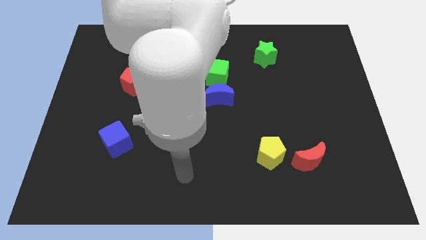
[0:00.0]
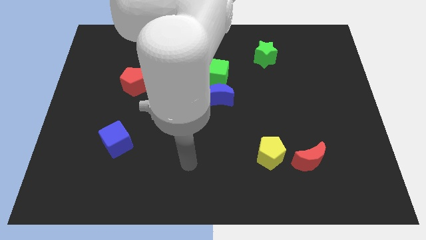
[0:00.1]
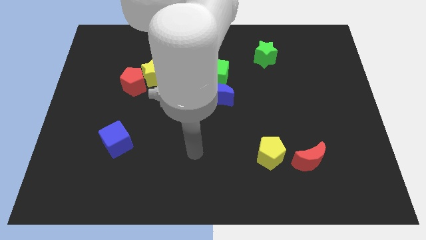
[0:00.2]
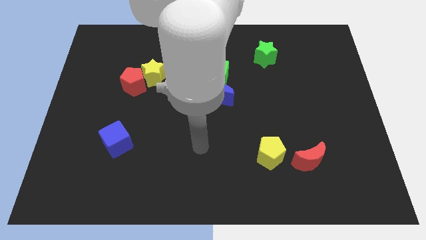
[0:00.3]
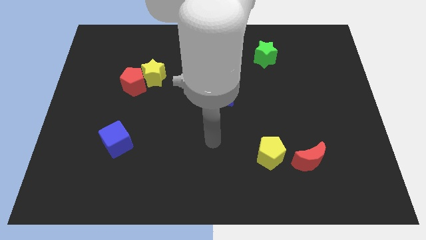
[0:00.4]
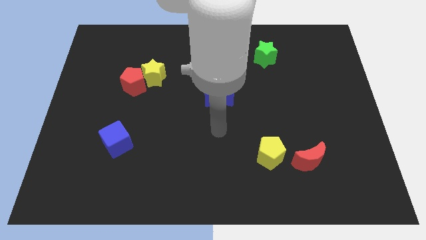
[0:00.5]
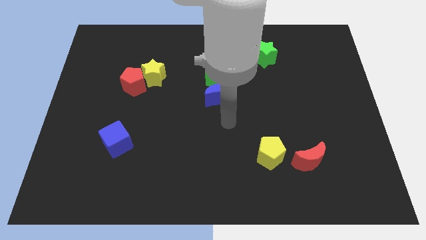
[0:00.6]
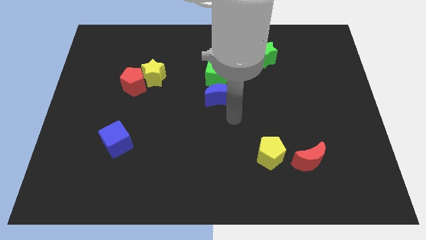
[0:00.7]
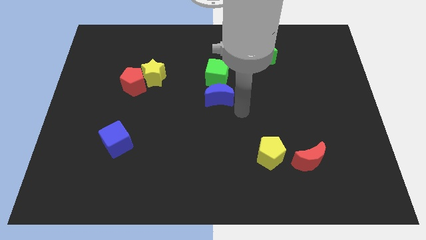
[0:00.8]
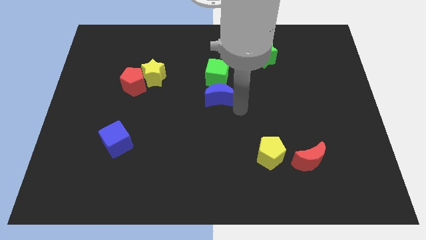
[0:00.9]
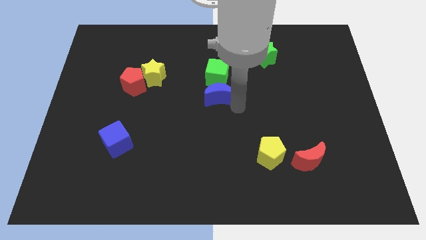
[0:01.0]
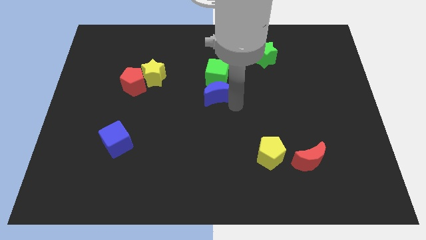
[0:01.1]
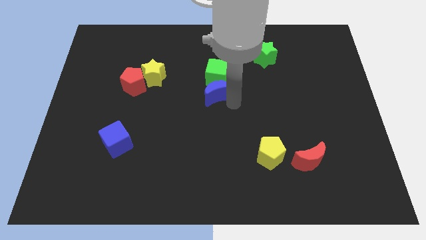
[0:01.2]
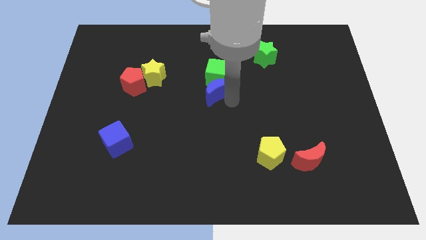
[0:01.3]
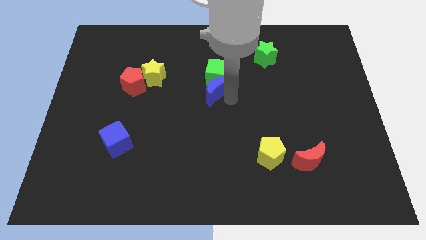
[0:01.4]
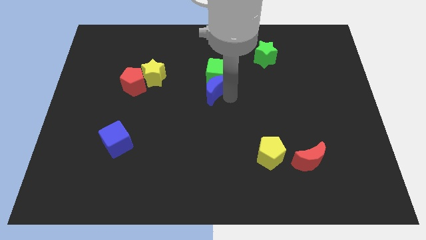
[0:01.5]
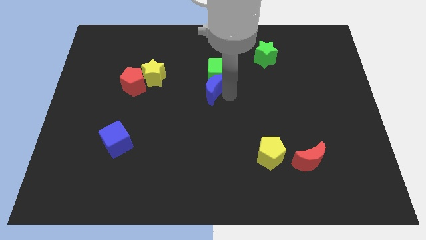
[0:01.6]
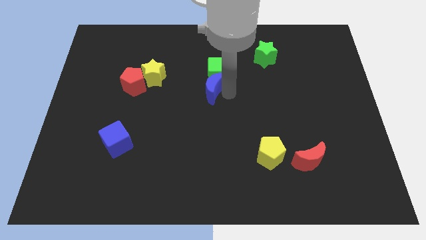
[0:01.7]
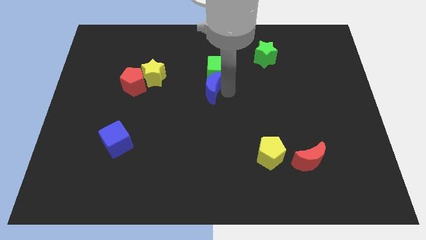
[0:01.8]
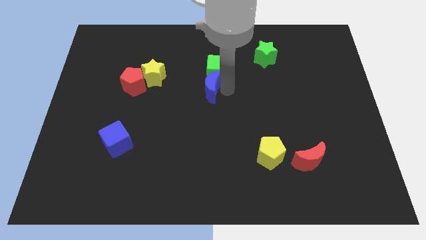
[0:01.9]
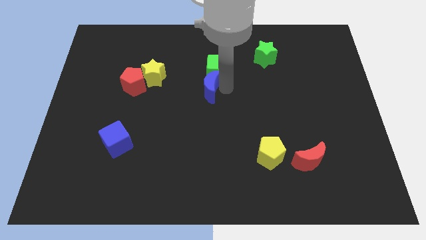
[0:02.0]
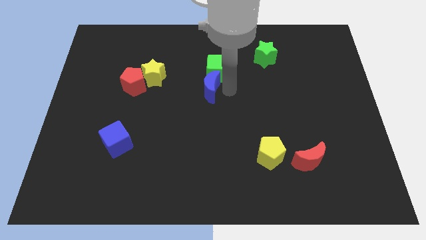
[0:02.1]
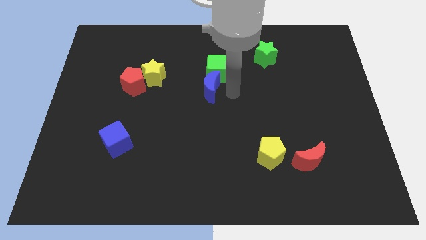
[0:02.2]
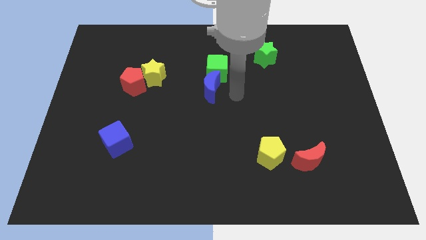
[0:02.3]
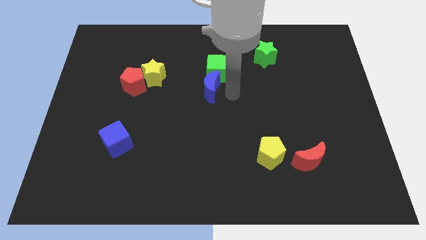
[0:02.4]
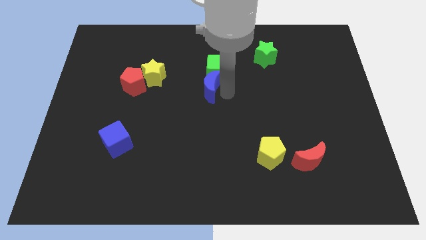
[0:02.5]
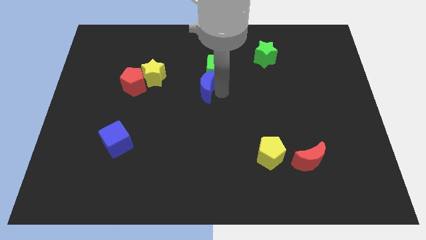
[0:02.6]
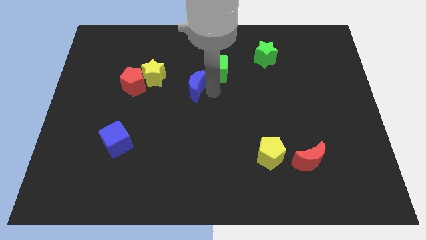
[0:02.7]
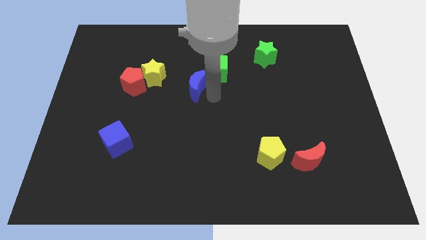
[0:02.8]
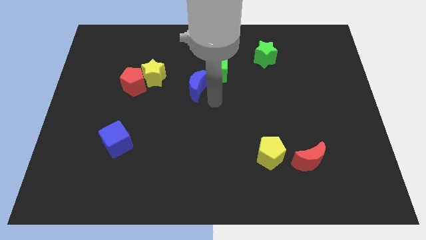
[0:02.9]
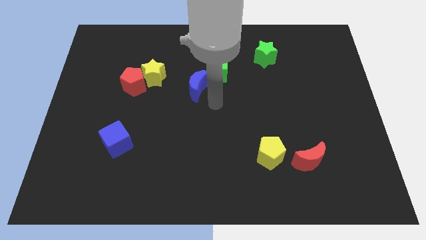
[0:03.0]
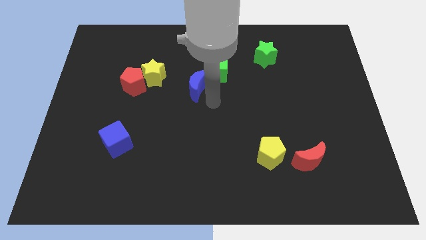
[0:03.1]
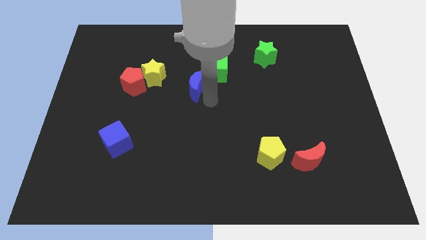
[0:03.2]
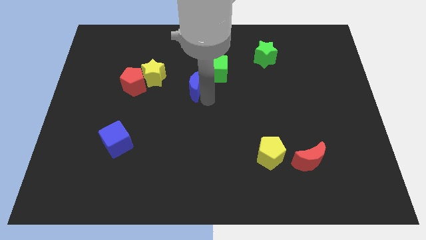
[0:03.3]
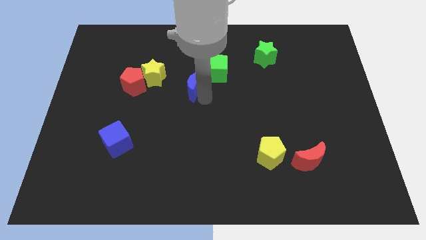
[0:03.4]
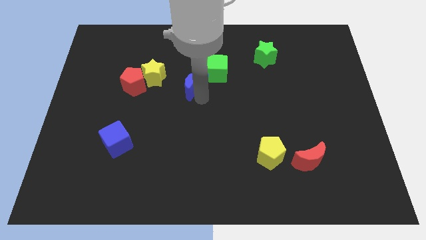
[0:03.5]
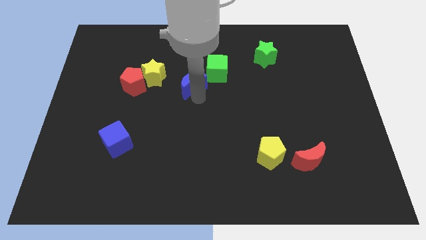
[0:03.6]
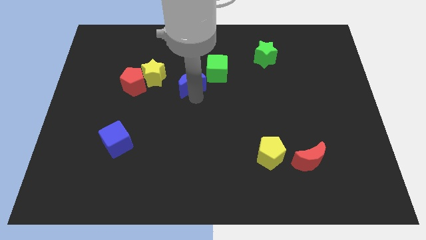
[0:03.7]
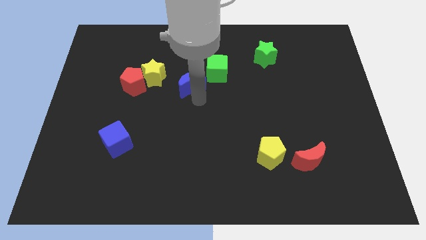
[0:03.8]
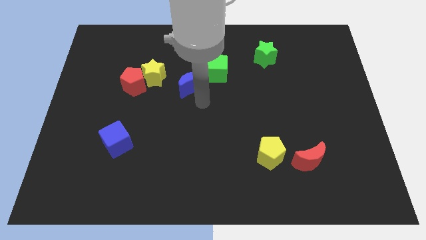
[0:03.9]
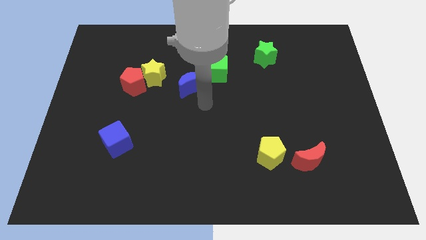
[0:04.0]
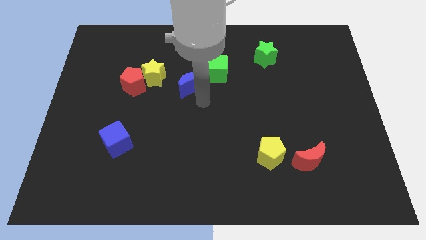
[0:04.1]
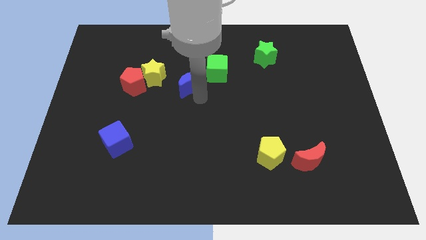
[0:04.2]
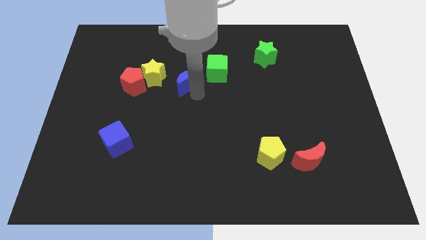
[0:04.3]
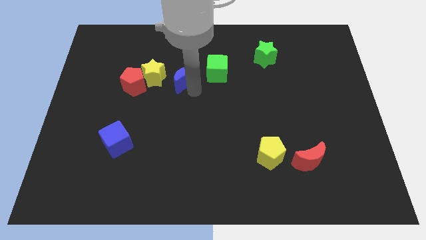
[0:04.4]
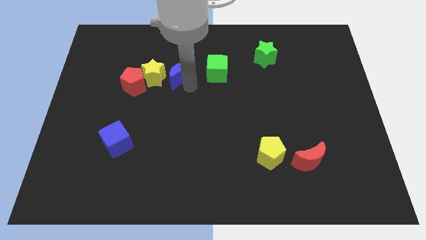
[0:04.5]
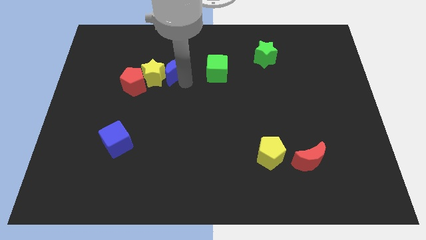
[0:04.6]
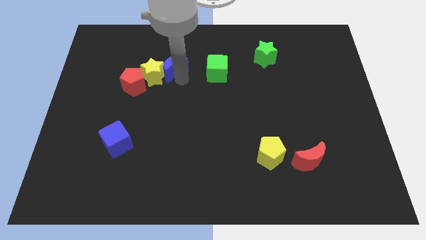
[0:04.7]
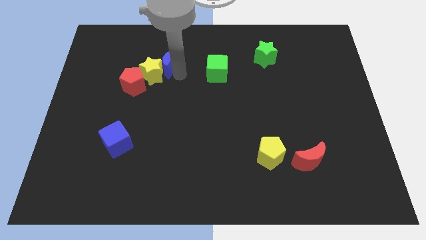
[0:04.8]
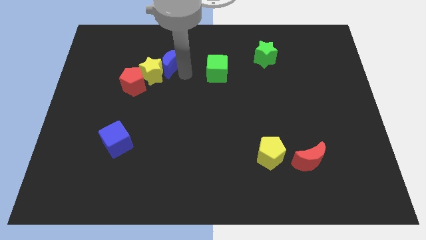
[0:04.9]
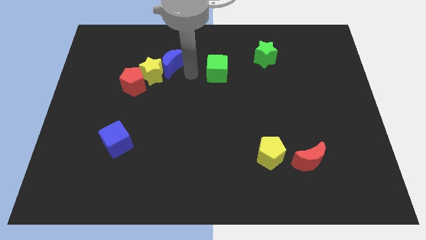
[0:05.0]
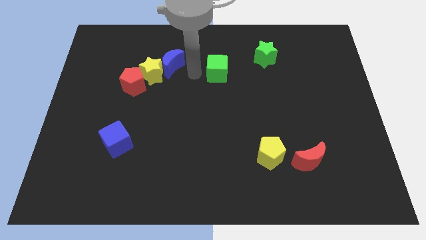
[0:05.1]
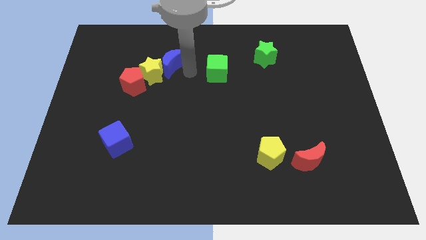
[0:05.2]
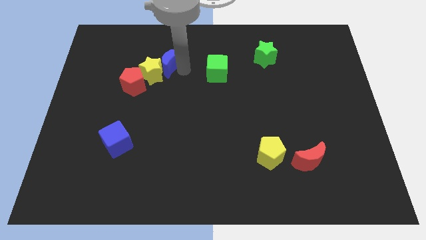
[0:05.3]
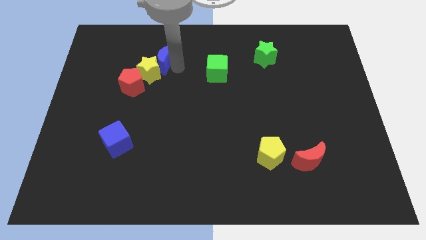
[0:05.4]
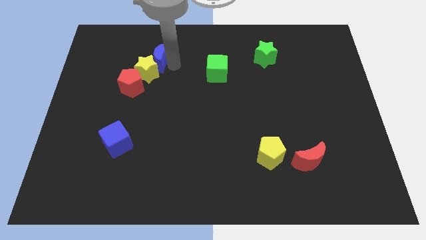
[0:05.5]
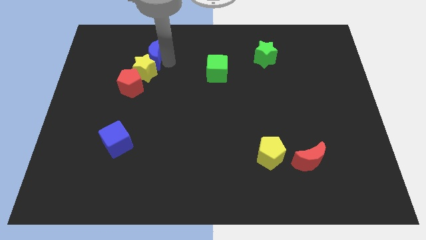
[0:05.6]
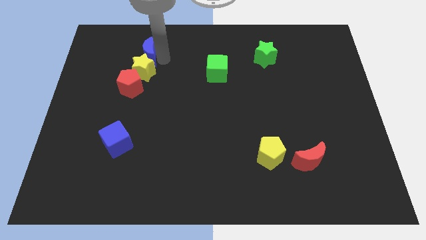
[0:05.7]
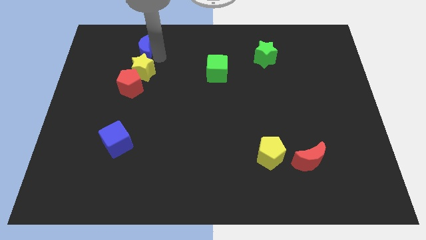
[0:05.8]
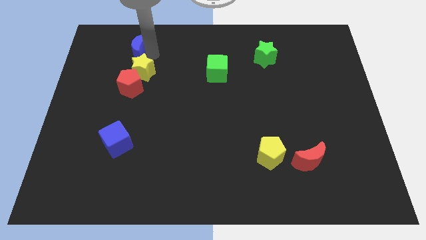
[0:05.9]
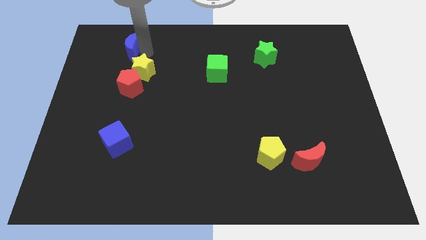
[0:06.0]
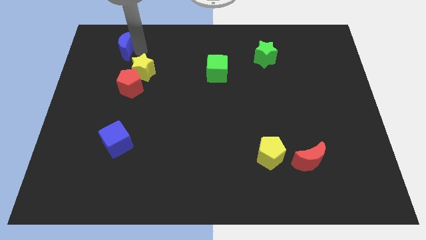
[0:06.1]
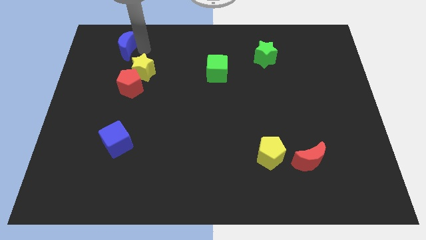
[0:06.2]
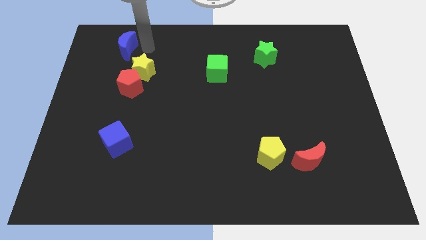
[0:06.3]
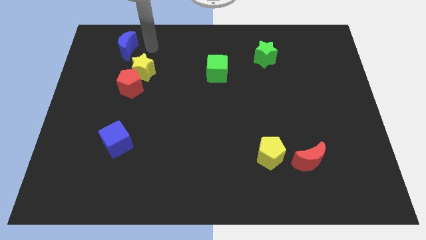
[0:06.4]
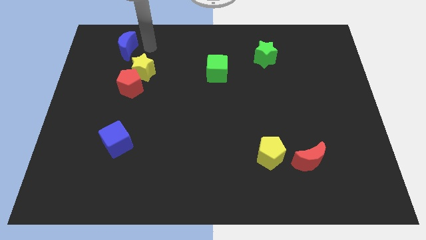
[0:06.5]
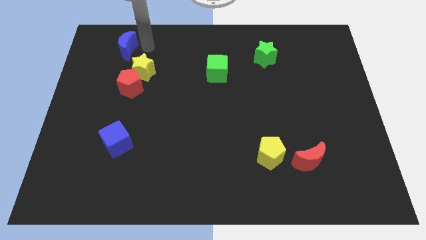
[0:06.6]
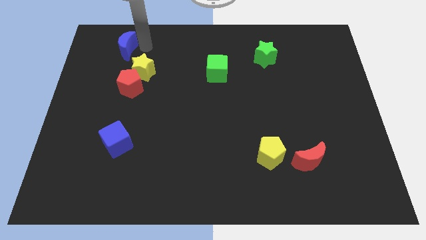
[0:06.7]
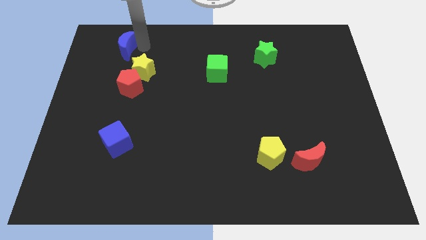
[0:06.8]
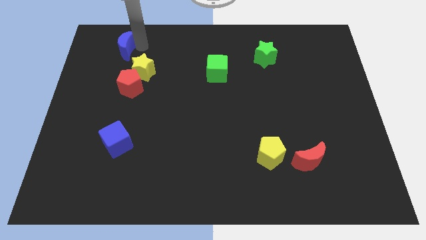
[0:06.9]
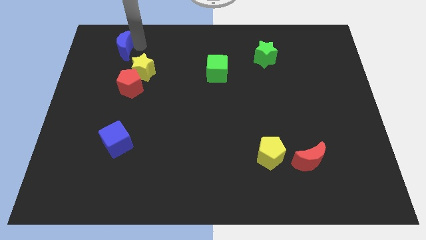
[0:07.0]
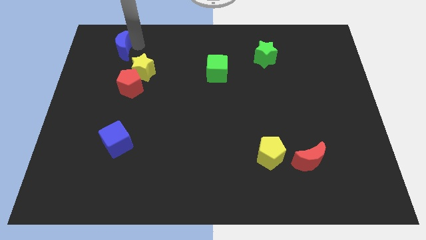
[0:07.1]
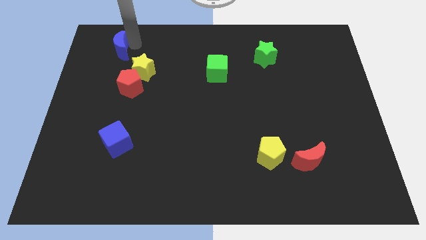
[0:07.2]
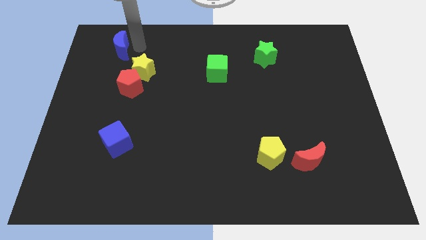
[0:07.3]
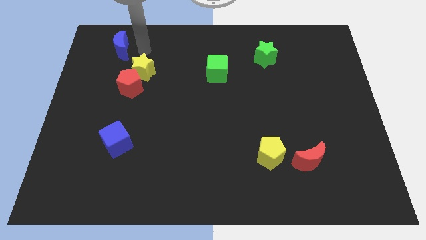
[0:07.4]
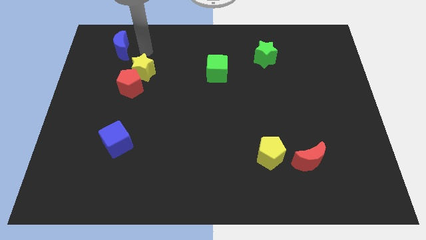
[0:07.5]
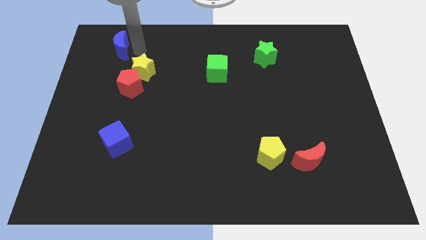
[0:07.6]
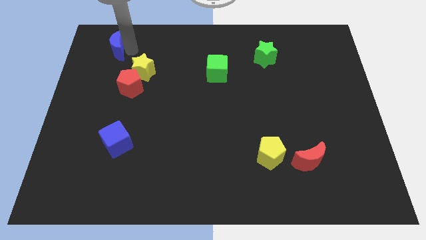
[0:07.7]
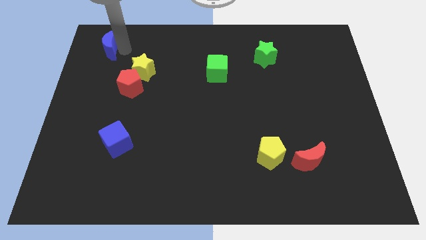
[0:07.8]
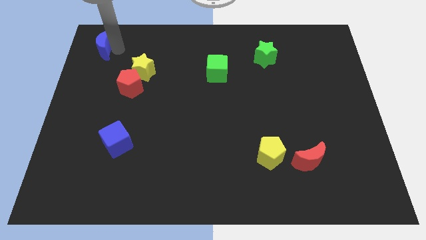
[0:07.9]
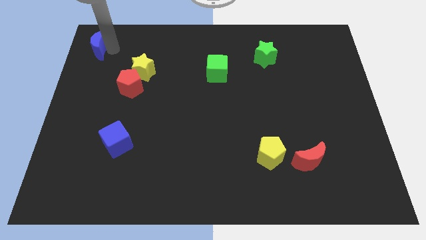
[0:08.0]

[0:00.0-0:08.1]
put the blue moon to the upper left corner
